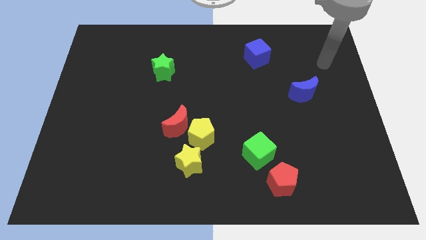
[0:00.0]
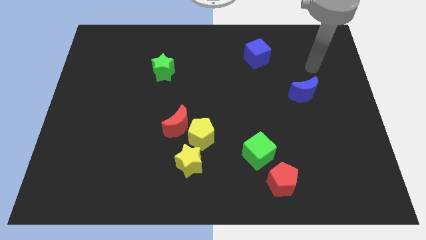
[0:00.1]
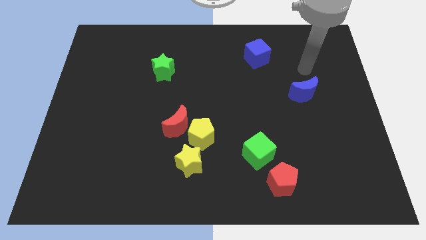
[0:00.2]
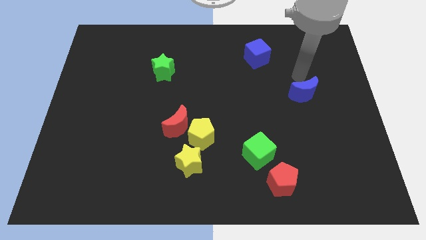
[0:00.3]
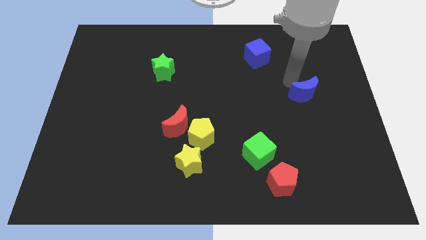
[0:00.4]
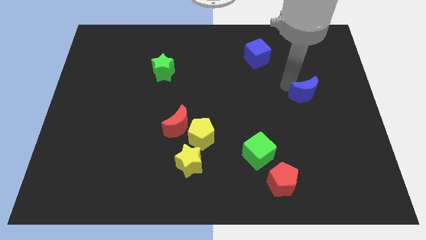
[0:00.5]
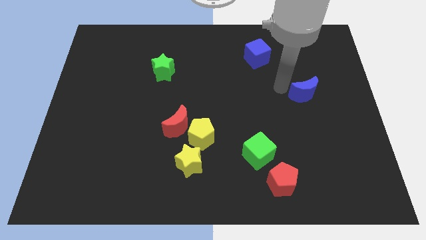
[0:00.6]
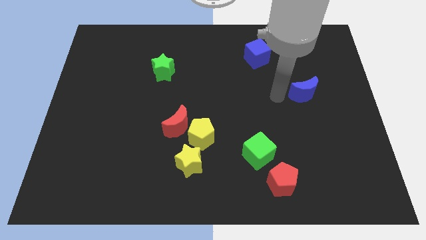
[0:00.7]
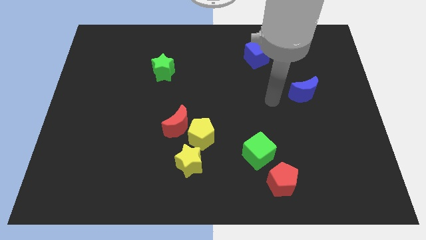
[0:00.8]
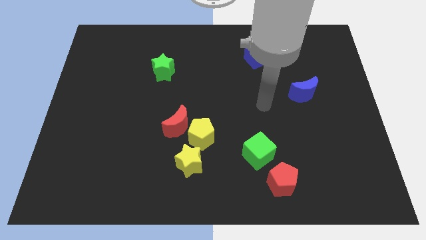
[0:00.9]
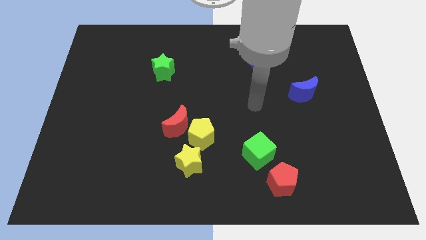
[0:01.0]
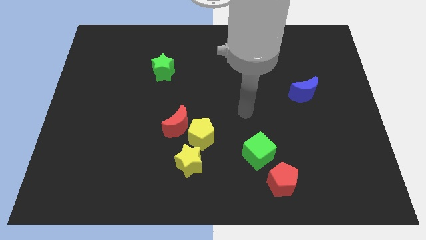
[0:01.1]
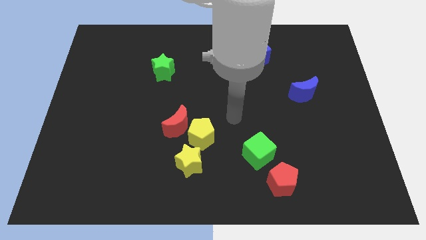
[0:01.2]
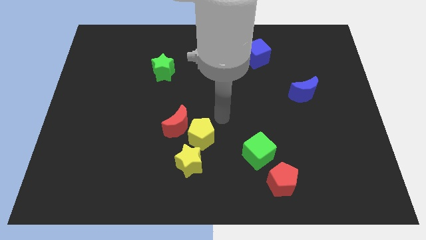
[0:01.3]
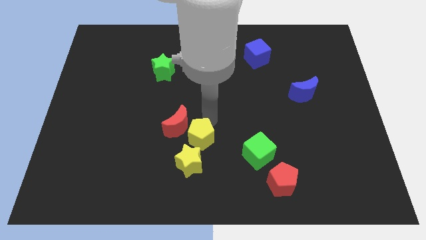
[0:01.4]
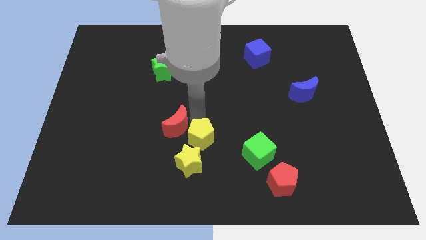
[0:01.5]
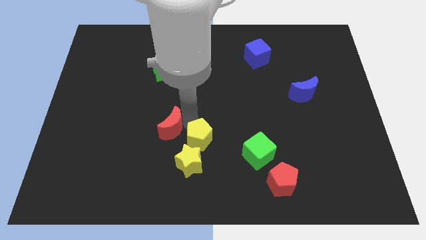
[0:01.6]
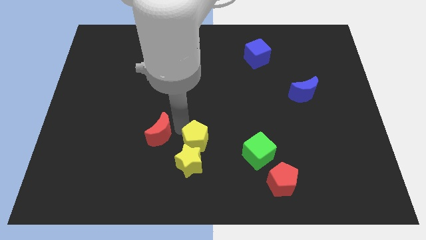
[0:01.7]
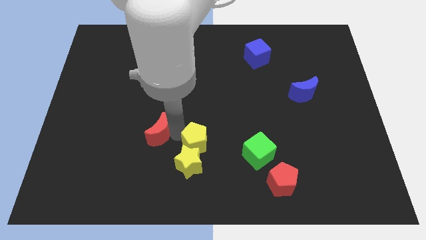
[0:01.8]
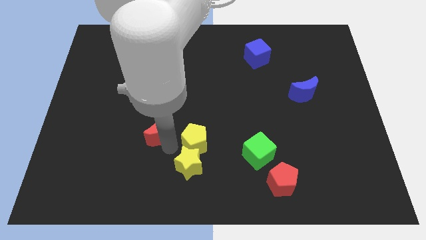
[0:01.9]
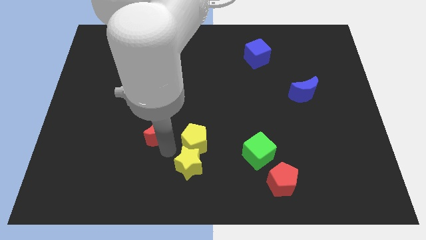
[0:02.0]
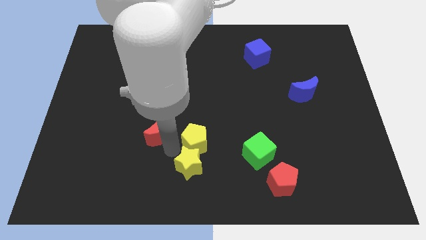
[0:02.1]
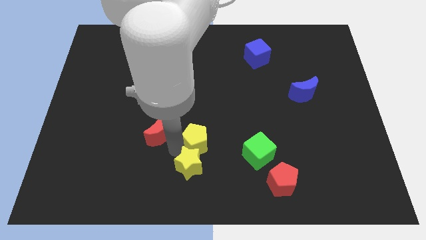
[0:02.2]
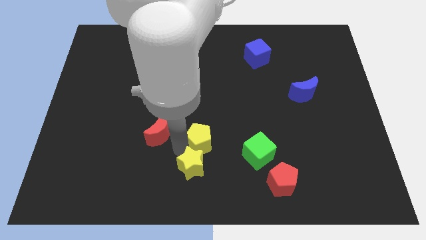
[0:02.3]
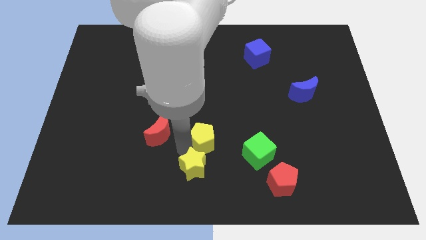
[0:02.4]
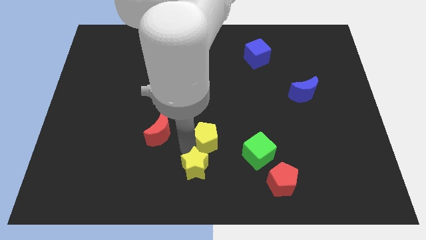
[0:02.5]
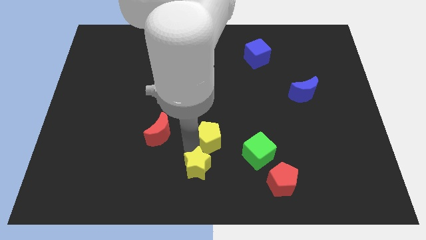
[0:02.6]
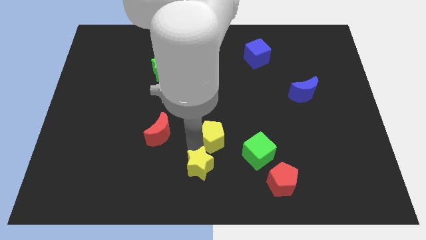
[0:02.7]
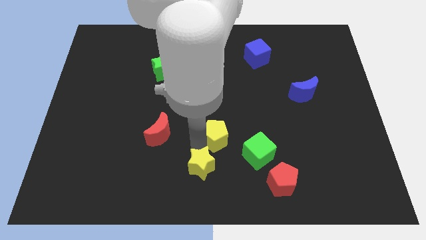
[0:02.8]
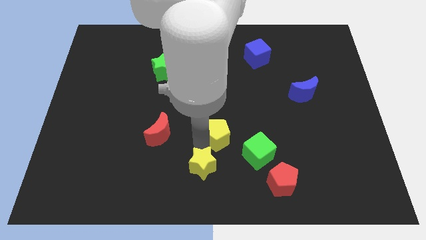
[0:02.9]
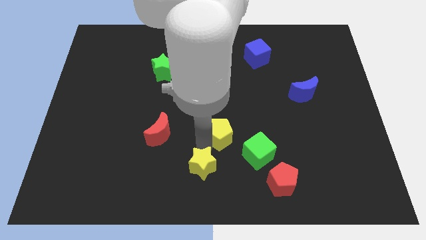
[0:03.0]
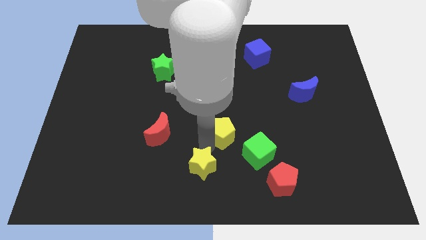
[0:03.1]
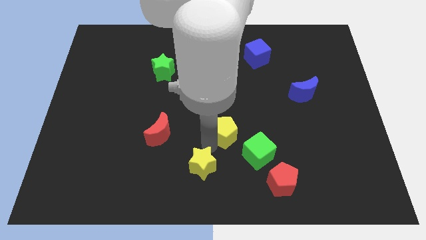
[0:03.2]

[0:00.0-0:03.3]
move the yellow pentagon away from the red moon and yellow star

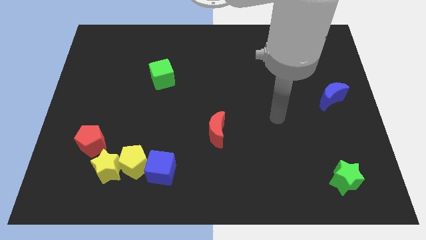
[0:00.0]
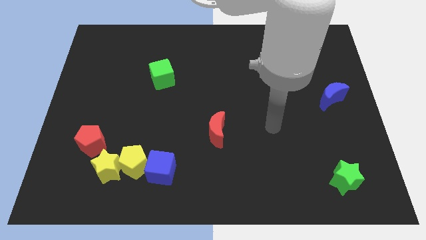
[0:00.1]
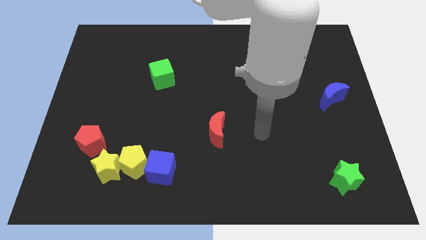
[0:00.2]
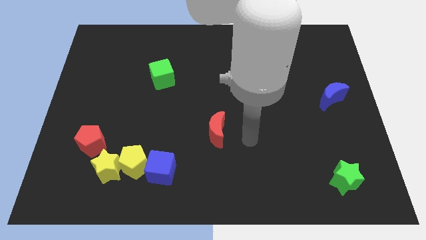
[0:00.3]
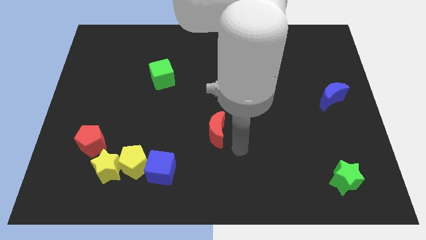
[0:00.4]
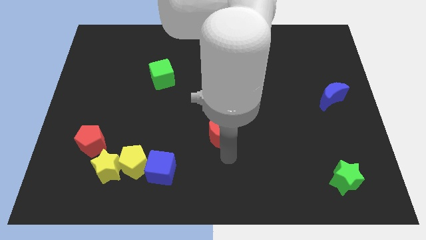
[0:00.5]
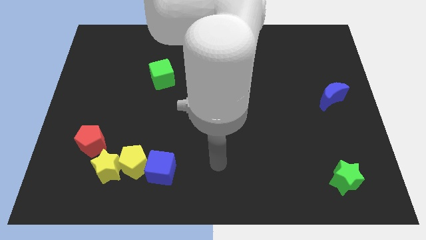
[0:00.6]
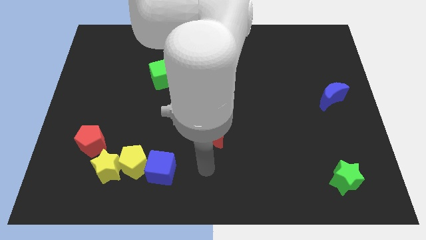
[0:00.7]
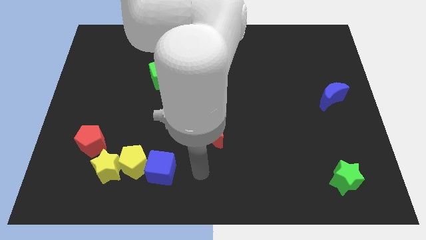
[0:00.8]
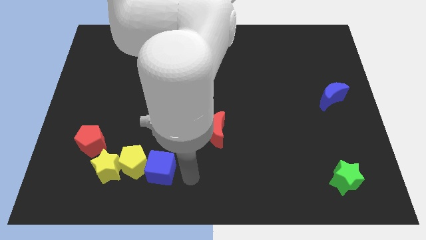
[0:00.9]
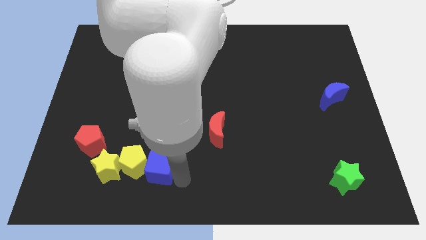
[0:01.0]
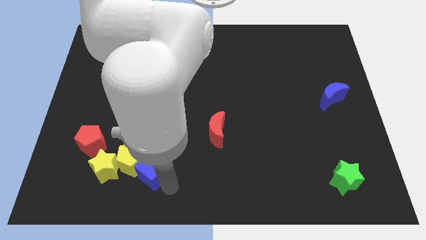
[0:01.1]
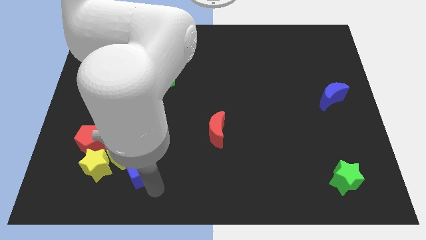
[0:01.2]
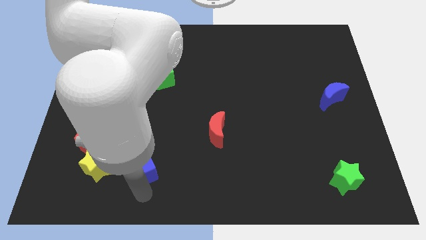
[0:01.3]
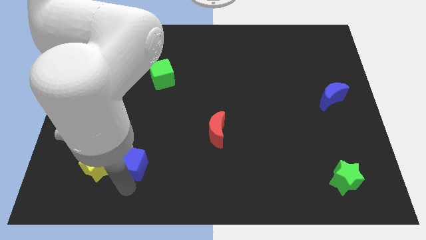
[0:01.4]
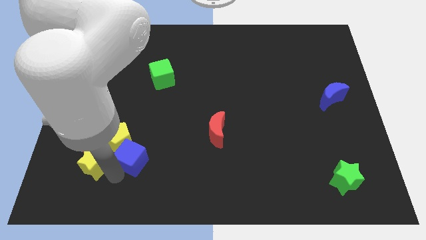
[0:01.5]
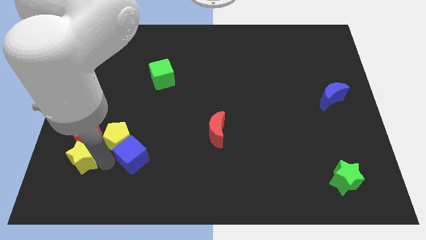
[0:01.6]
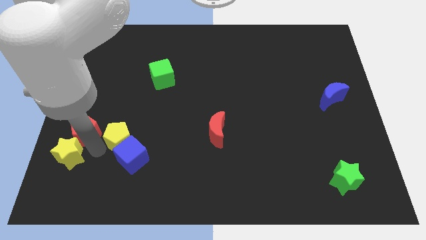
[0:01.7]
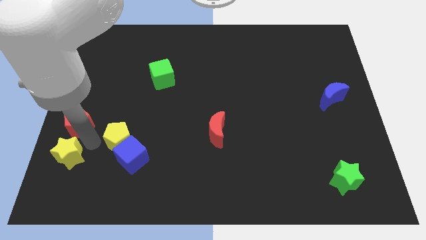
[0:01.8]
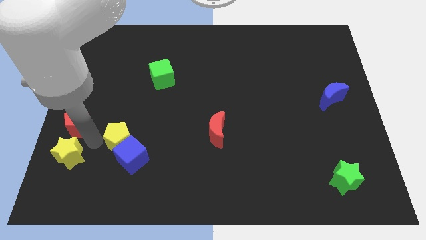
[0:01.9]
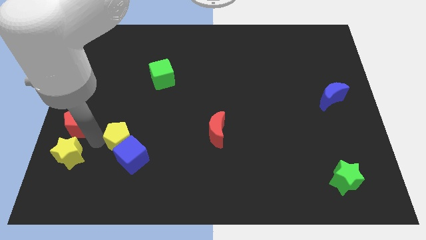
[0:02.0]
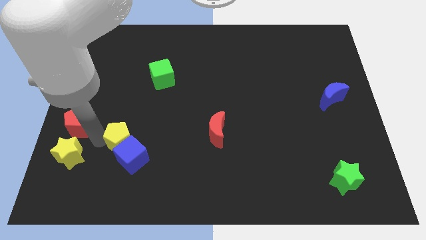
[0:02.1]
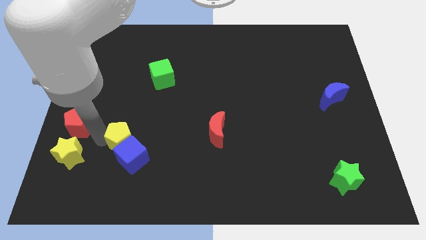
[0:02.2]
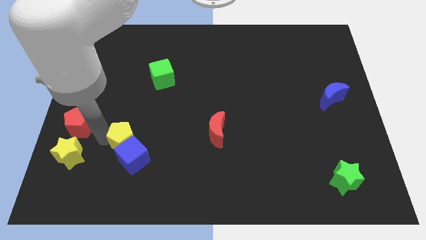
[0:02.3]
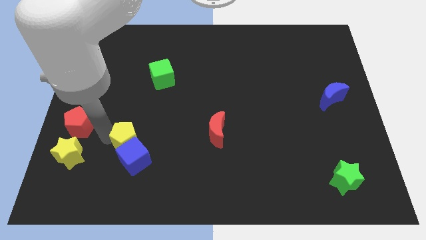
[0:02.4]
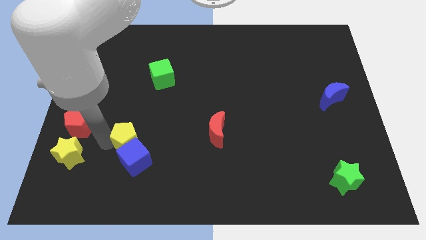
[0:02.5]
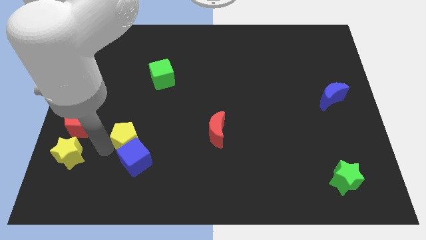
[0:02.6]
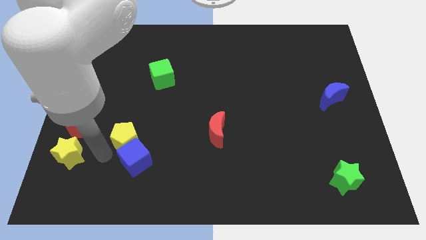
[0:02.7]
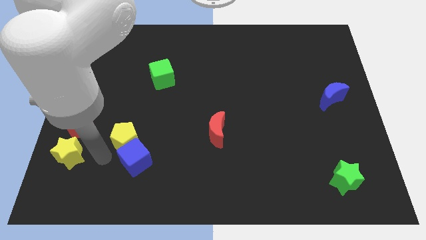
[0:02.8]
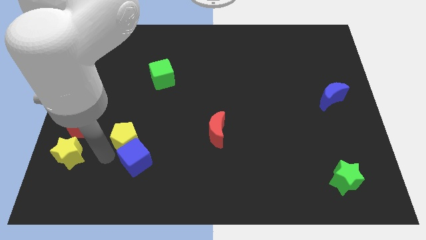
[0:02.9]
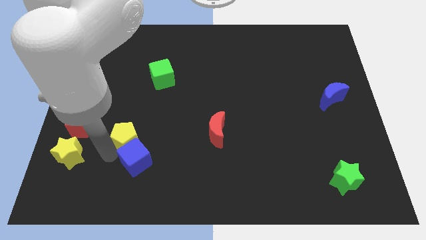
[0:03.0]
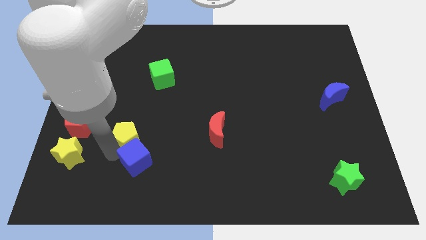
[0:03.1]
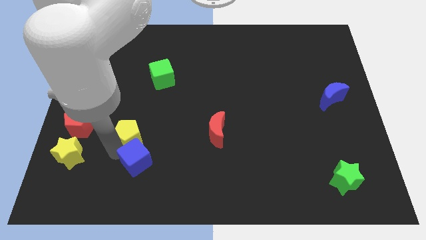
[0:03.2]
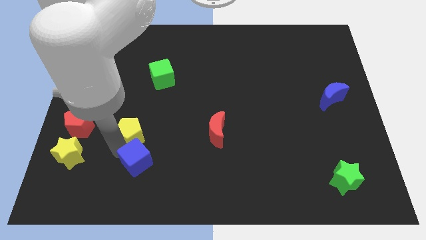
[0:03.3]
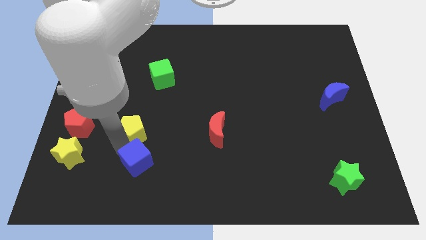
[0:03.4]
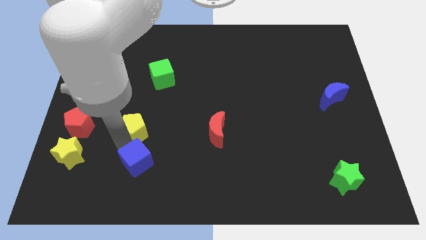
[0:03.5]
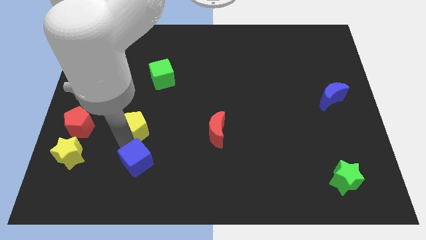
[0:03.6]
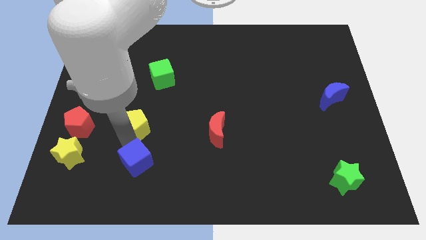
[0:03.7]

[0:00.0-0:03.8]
pull the yellow pentagon apart from the yellow star and blue cube

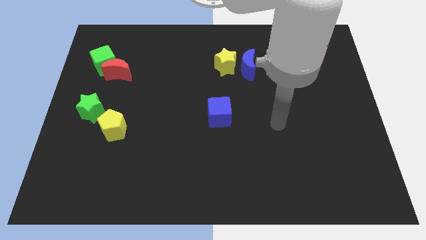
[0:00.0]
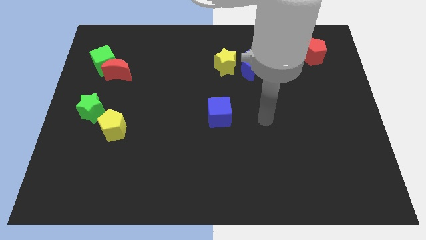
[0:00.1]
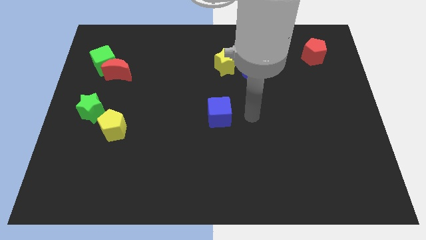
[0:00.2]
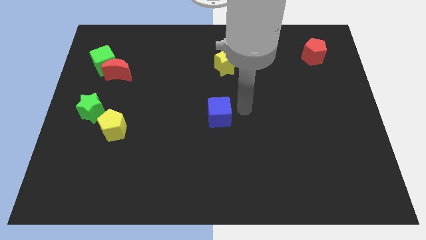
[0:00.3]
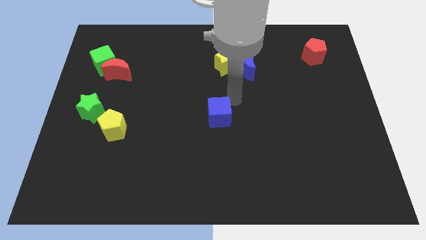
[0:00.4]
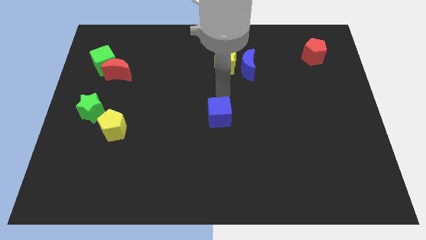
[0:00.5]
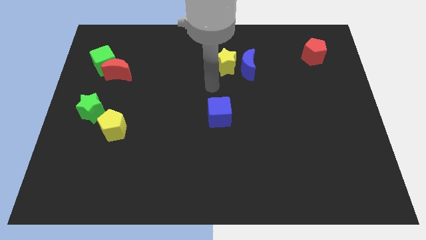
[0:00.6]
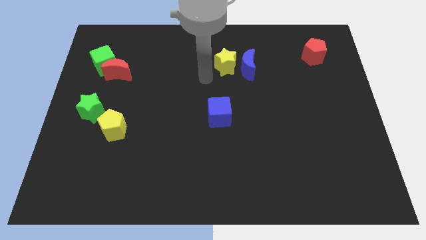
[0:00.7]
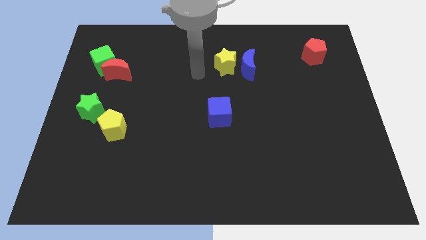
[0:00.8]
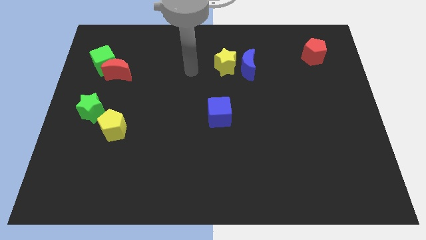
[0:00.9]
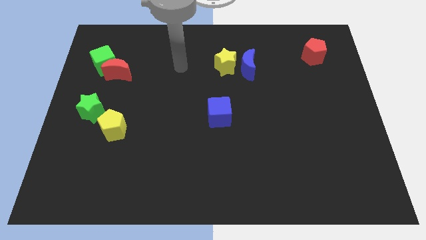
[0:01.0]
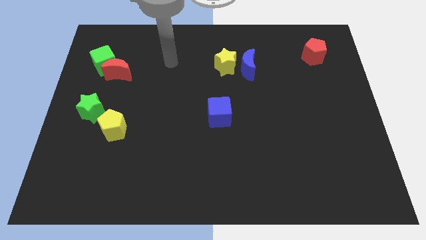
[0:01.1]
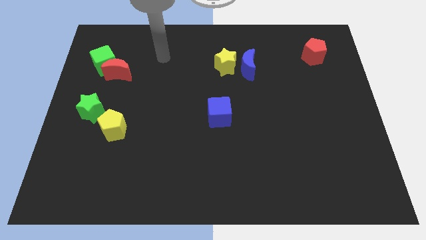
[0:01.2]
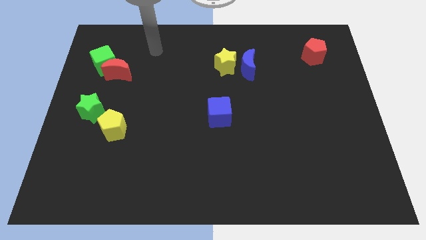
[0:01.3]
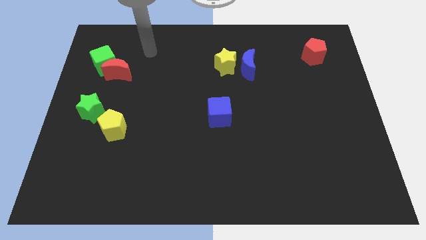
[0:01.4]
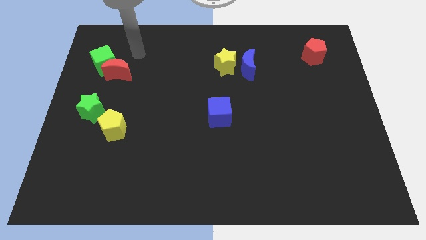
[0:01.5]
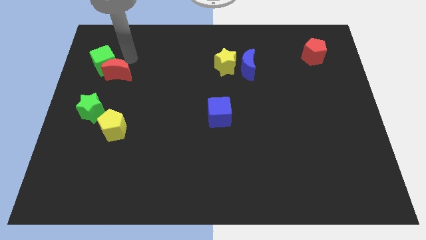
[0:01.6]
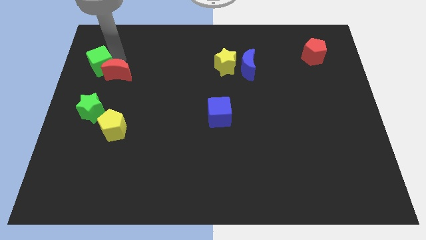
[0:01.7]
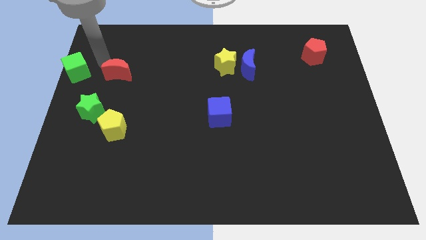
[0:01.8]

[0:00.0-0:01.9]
move the red moon away from the green cube

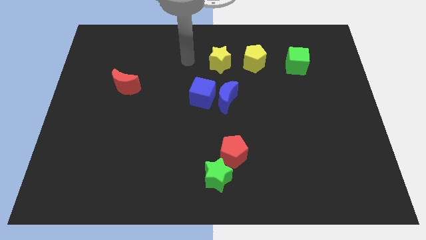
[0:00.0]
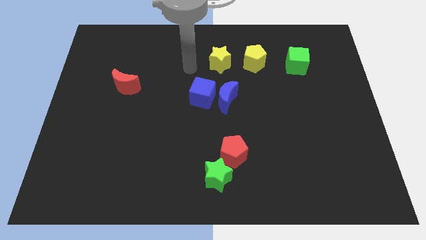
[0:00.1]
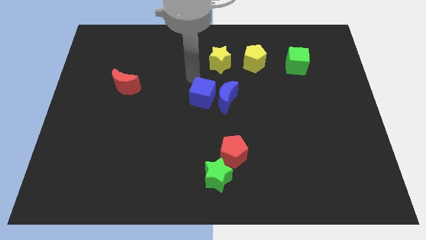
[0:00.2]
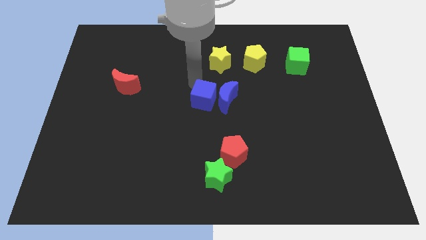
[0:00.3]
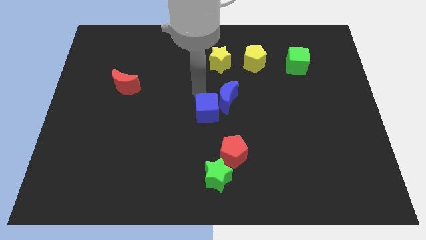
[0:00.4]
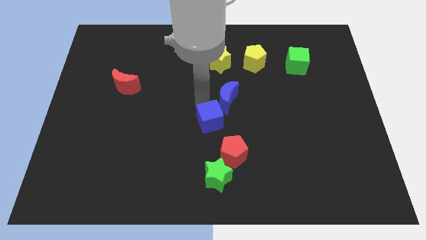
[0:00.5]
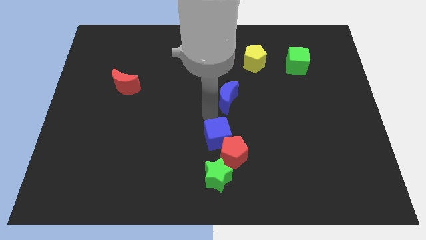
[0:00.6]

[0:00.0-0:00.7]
pull the blue moon apart from the blue cube
